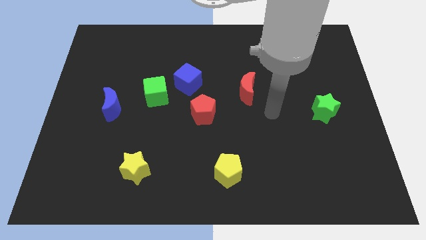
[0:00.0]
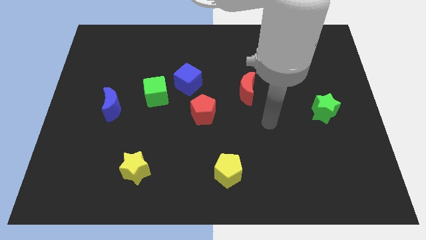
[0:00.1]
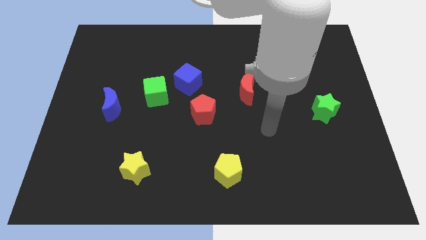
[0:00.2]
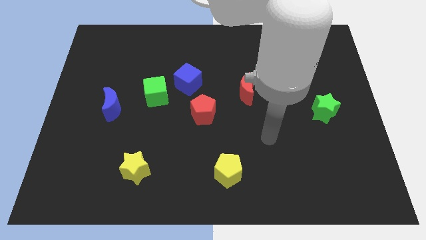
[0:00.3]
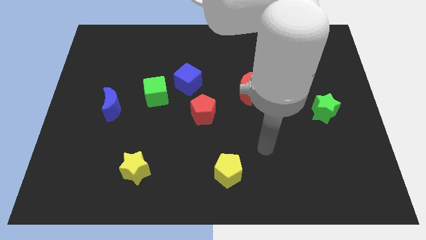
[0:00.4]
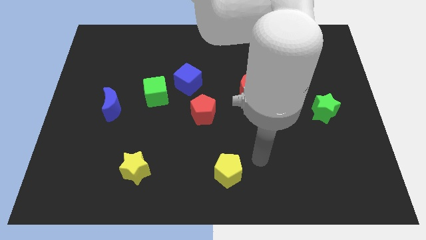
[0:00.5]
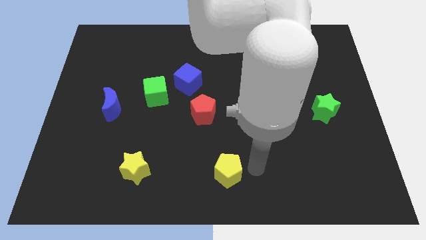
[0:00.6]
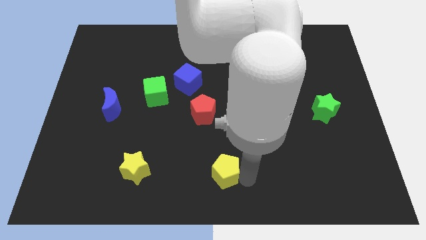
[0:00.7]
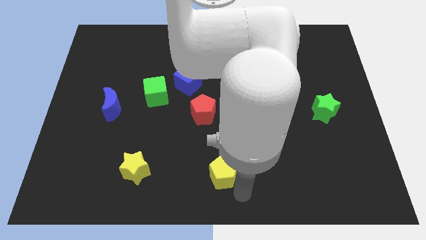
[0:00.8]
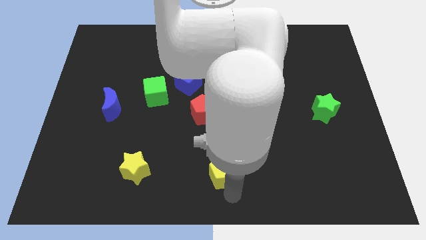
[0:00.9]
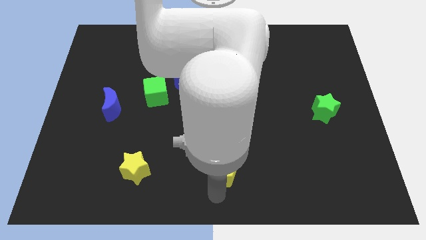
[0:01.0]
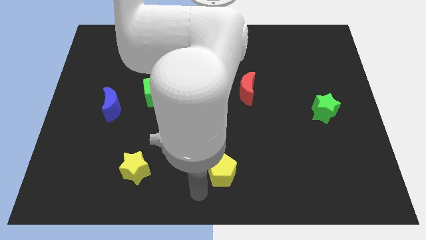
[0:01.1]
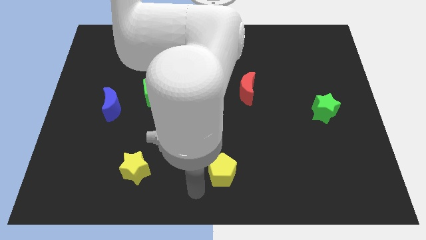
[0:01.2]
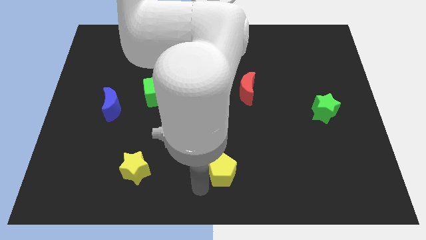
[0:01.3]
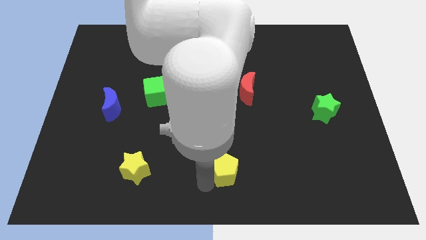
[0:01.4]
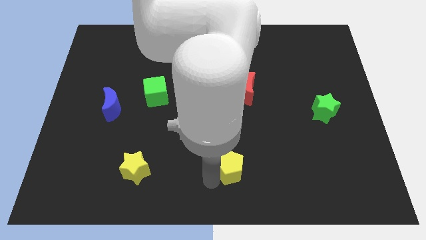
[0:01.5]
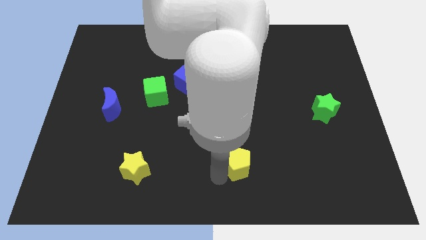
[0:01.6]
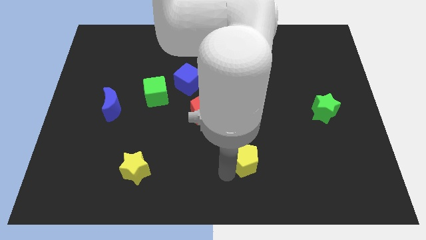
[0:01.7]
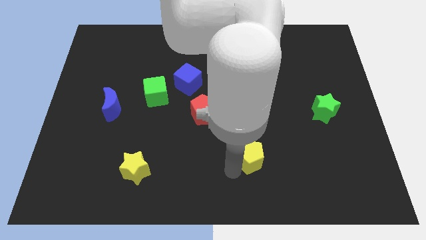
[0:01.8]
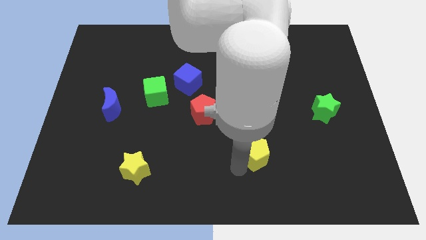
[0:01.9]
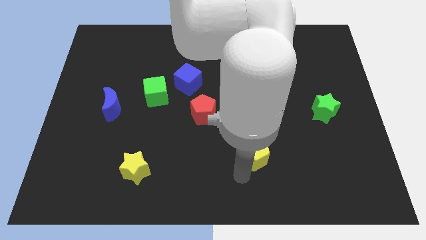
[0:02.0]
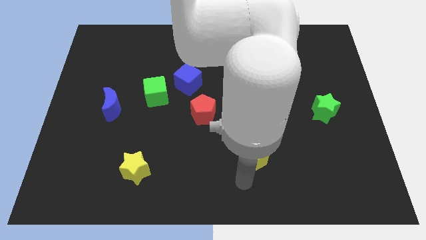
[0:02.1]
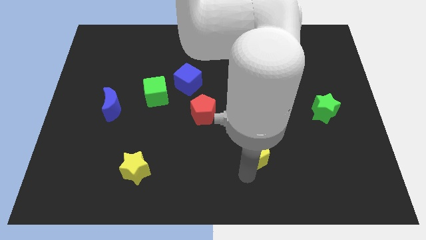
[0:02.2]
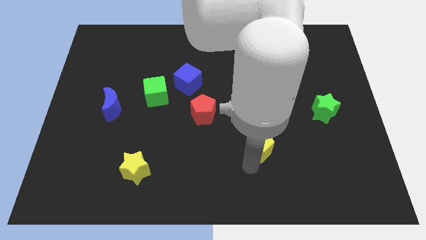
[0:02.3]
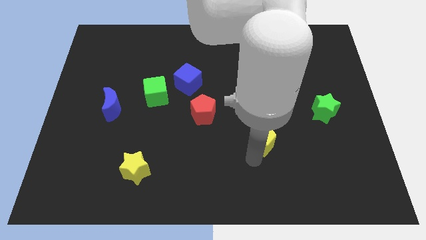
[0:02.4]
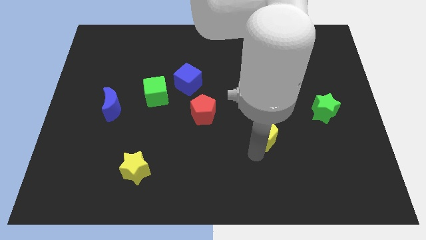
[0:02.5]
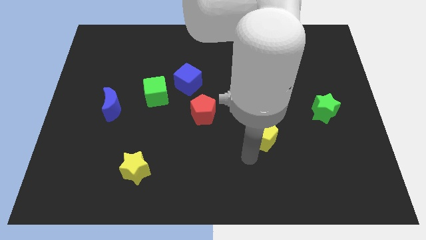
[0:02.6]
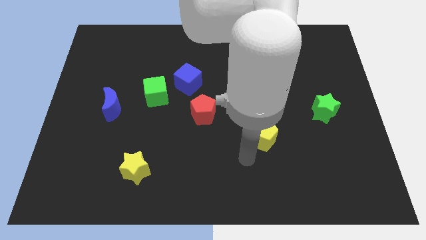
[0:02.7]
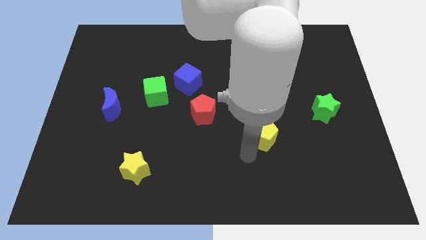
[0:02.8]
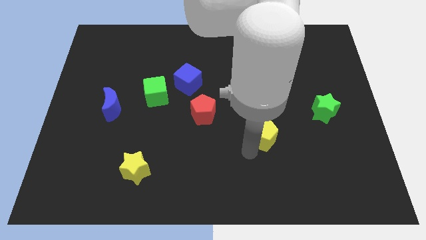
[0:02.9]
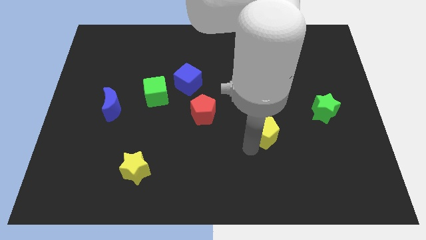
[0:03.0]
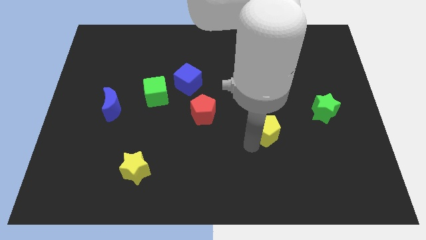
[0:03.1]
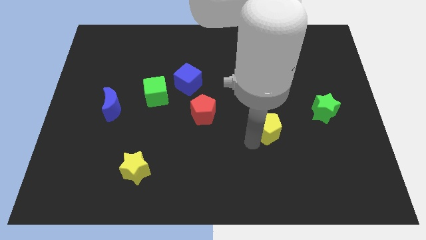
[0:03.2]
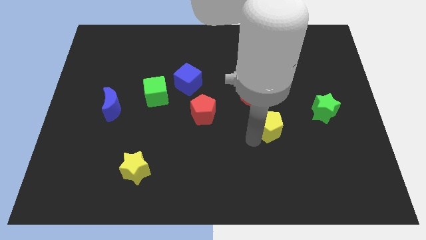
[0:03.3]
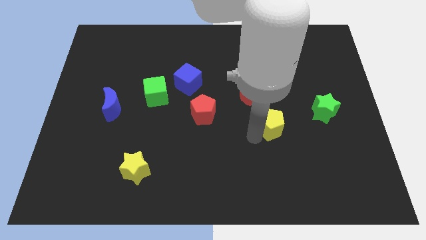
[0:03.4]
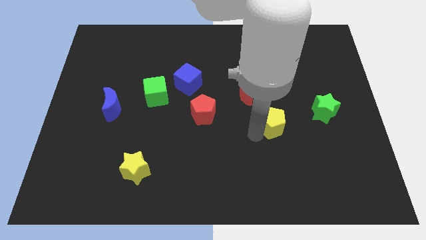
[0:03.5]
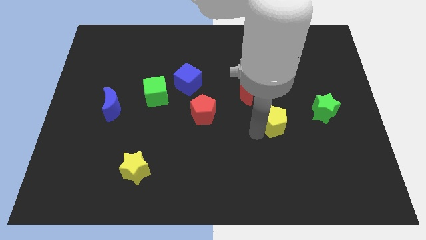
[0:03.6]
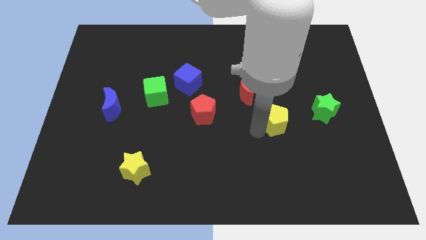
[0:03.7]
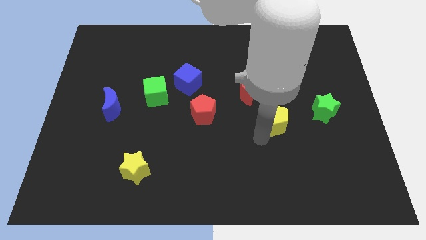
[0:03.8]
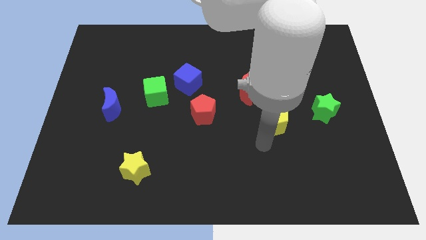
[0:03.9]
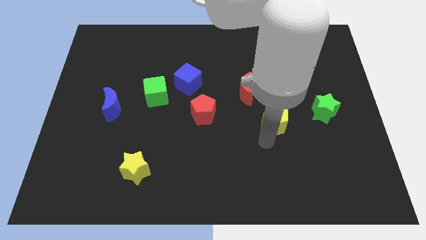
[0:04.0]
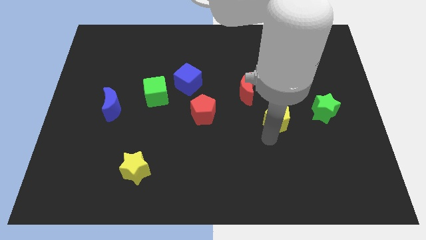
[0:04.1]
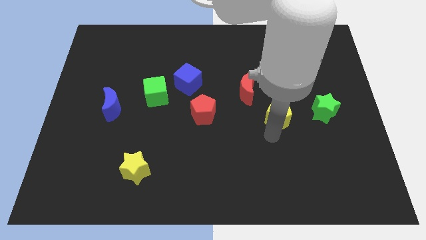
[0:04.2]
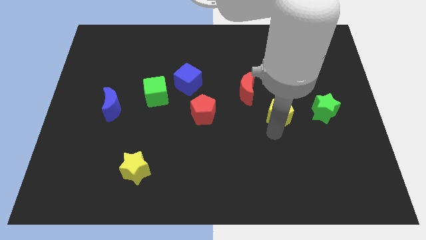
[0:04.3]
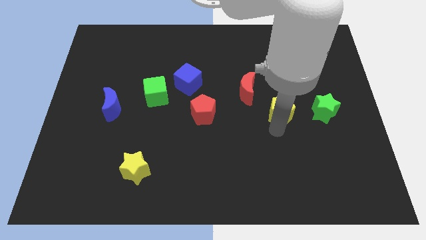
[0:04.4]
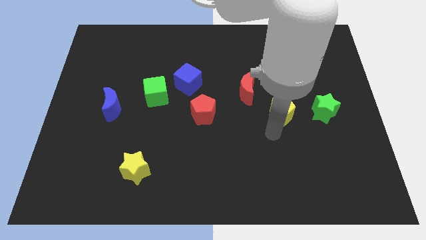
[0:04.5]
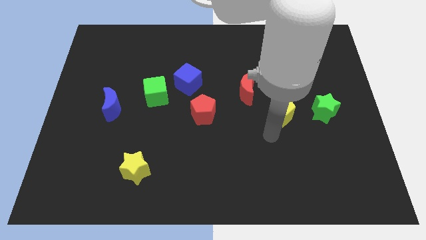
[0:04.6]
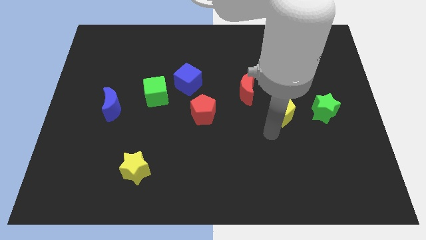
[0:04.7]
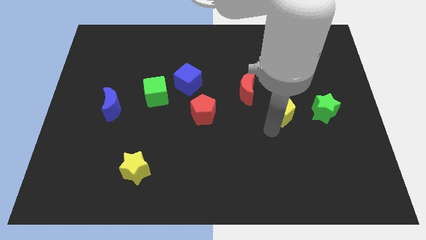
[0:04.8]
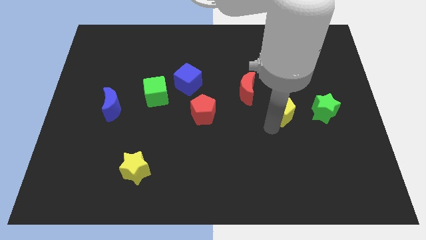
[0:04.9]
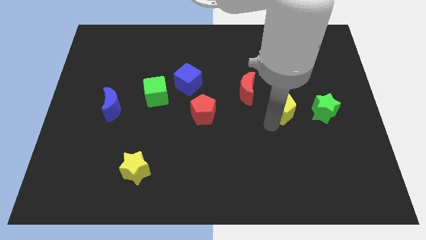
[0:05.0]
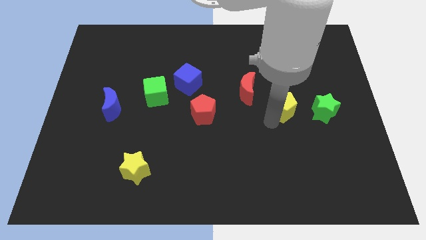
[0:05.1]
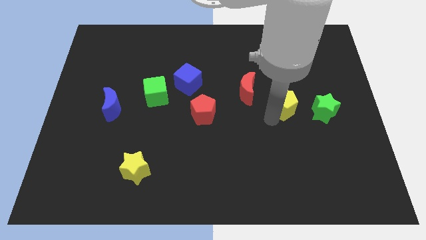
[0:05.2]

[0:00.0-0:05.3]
put the yellow pentagon just right of the red moon

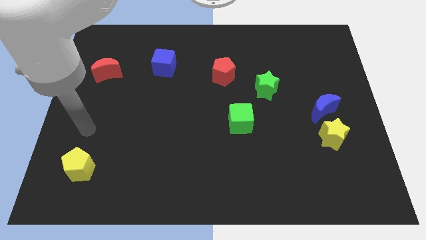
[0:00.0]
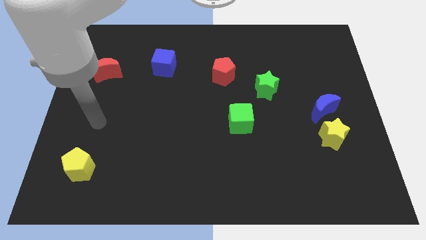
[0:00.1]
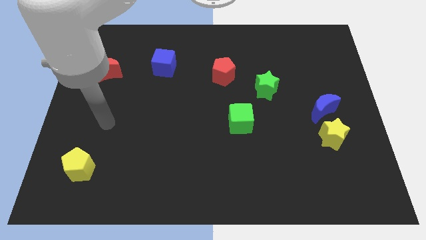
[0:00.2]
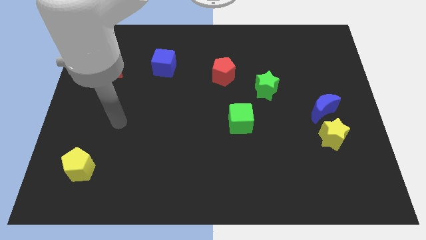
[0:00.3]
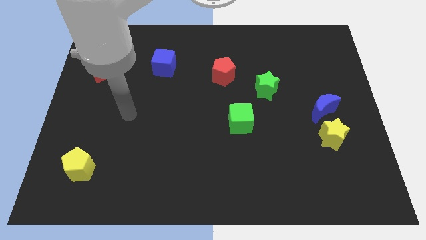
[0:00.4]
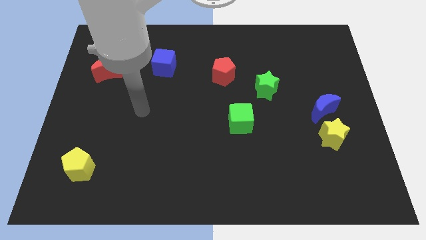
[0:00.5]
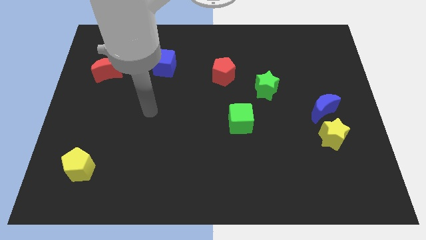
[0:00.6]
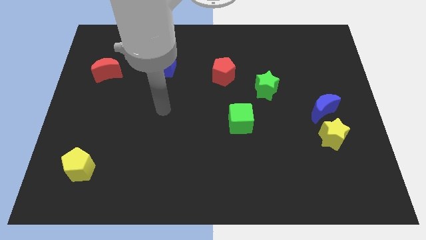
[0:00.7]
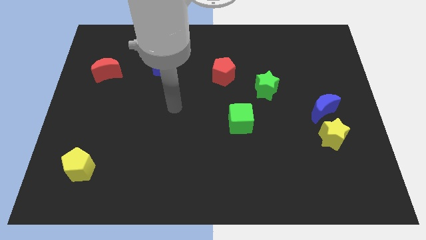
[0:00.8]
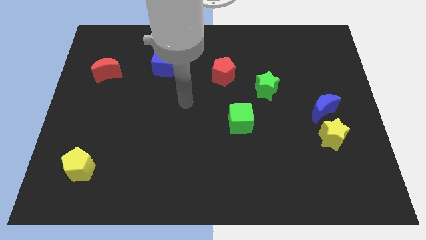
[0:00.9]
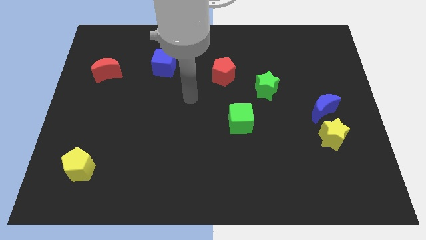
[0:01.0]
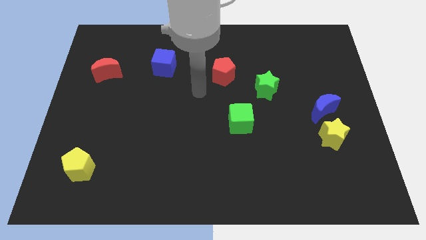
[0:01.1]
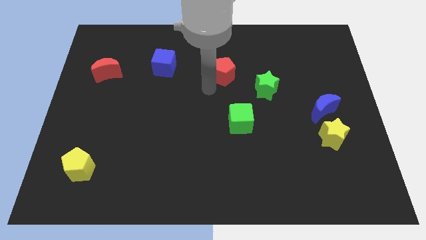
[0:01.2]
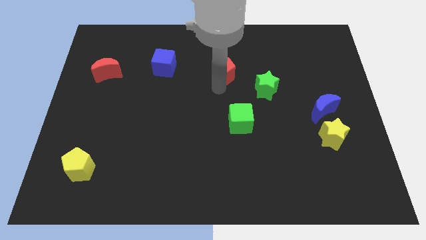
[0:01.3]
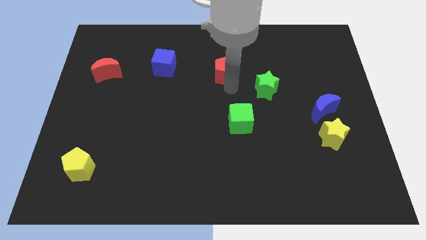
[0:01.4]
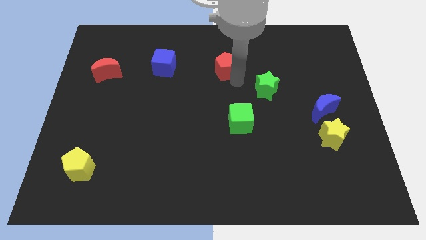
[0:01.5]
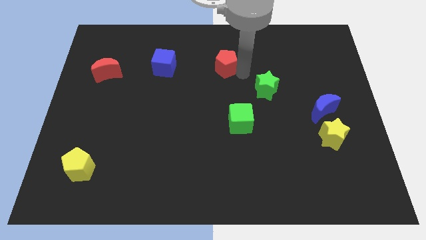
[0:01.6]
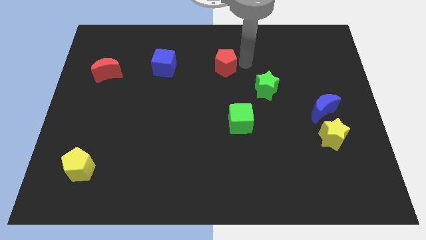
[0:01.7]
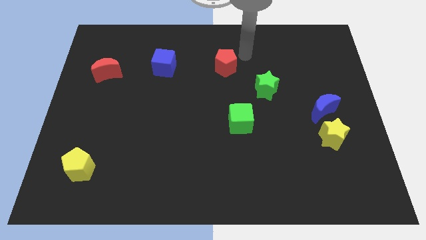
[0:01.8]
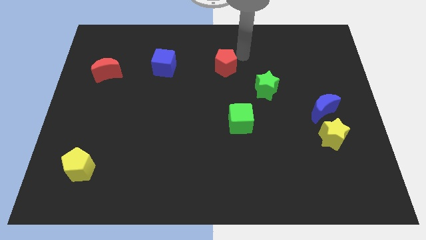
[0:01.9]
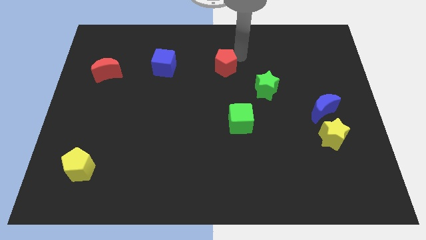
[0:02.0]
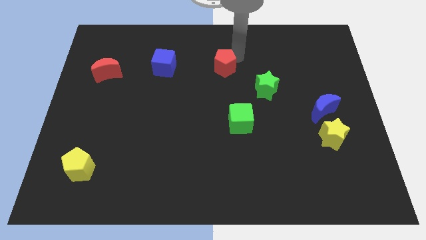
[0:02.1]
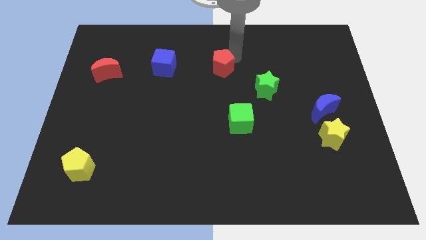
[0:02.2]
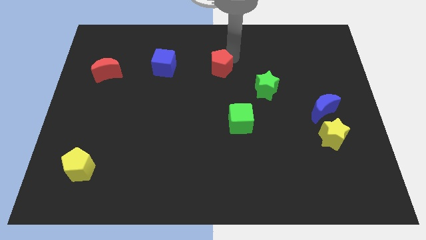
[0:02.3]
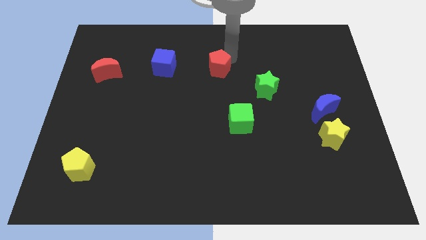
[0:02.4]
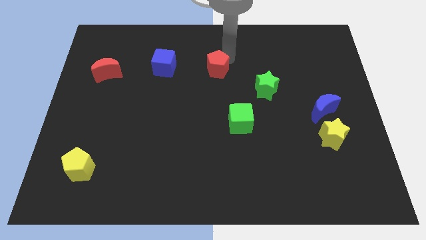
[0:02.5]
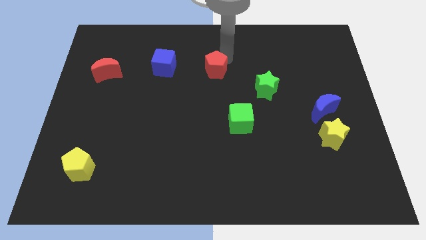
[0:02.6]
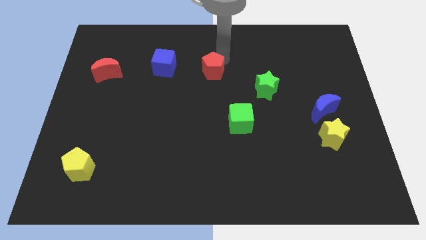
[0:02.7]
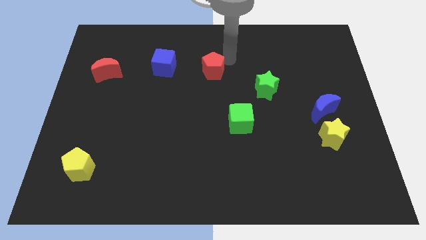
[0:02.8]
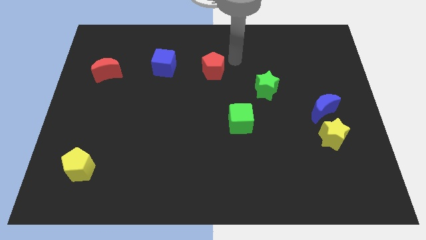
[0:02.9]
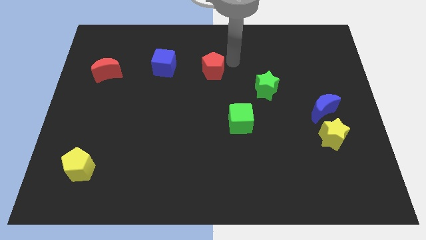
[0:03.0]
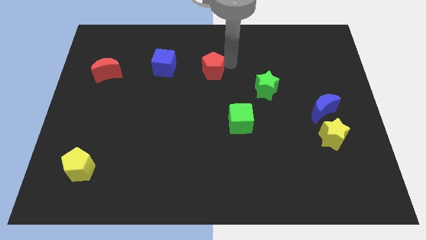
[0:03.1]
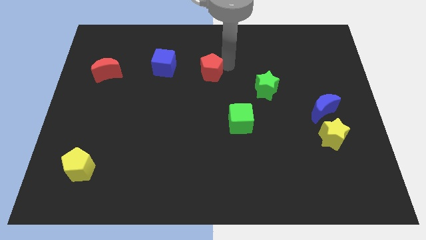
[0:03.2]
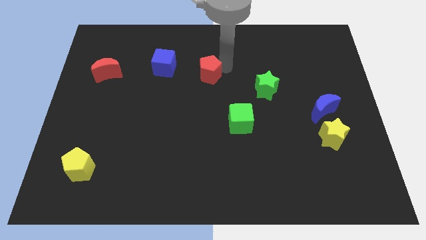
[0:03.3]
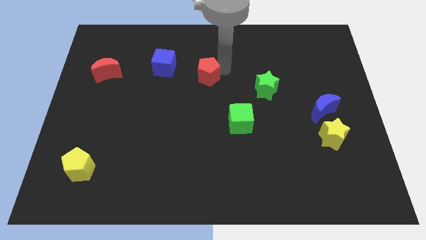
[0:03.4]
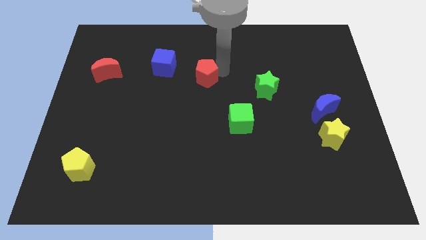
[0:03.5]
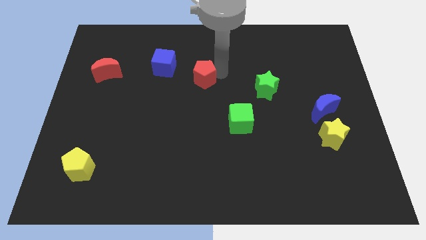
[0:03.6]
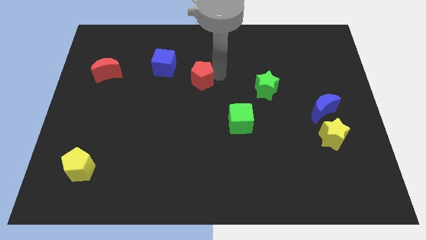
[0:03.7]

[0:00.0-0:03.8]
move the red pentagon diagonally down and to the right of the blue cube
